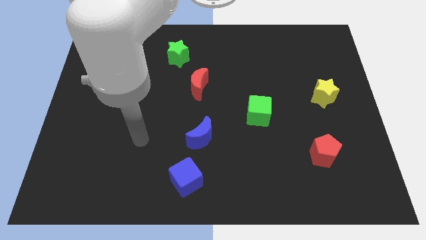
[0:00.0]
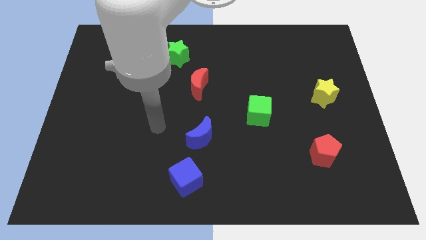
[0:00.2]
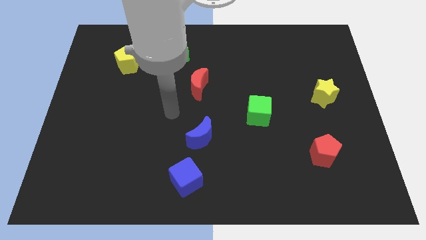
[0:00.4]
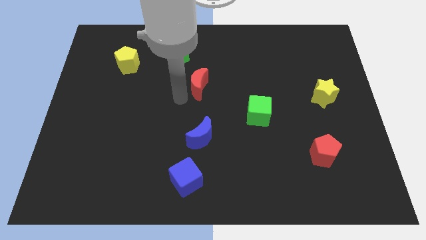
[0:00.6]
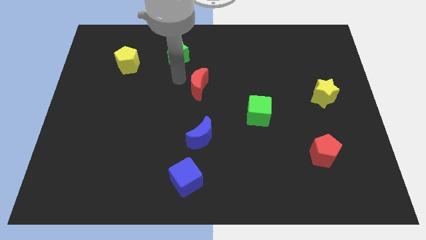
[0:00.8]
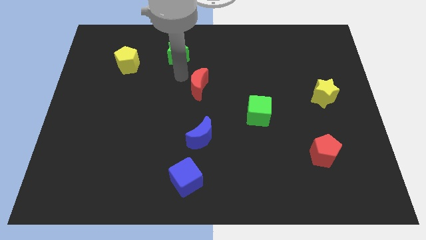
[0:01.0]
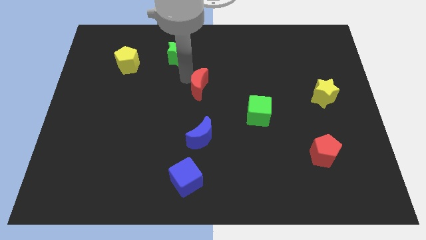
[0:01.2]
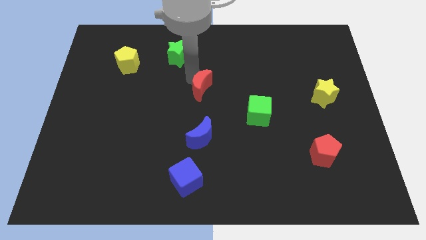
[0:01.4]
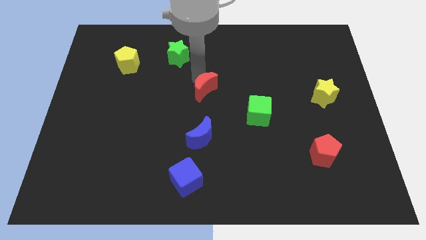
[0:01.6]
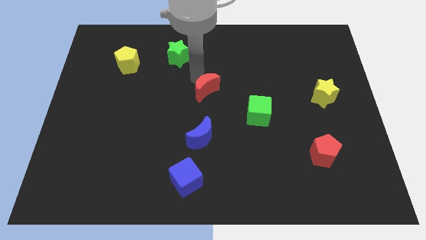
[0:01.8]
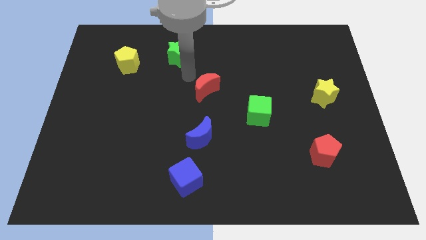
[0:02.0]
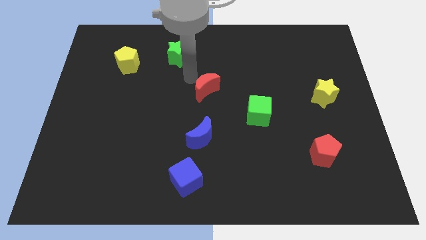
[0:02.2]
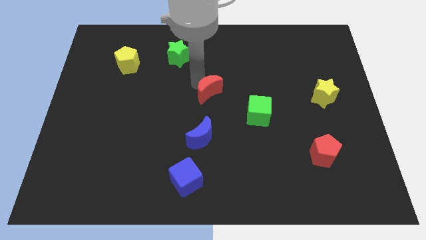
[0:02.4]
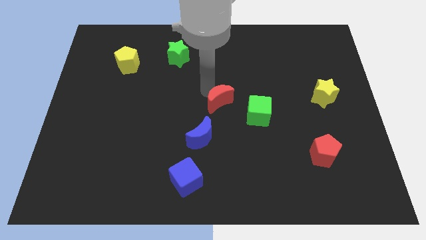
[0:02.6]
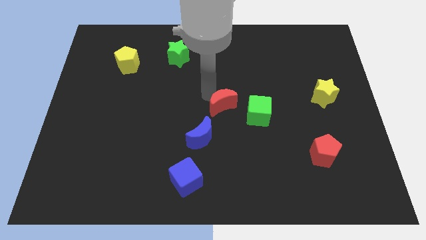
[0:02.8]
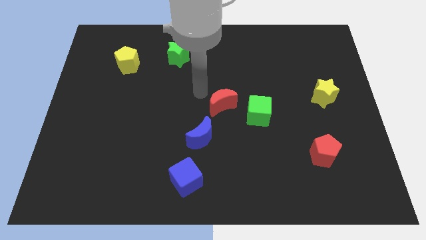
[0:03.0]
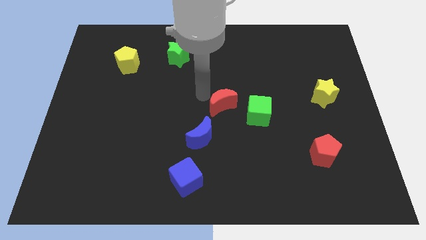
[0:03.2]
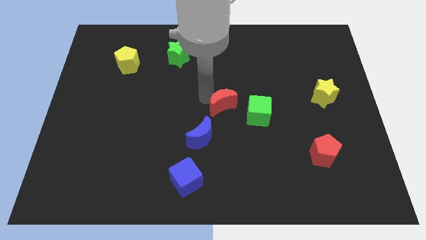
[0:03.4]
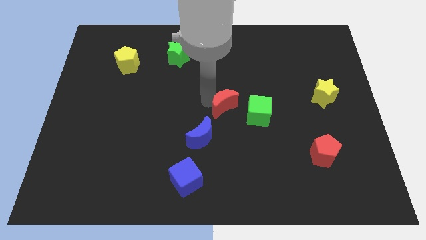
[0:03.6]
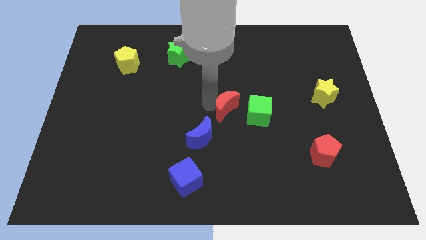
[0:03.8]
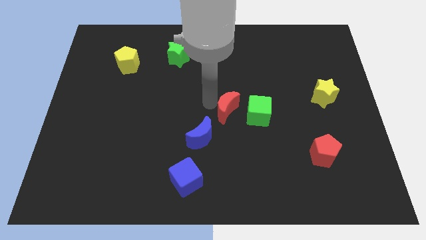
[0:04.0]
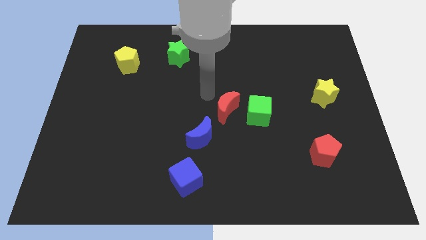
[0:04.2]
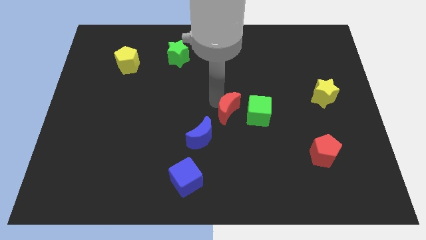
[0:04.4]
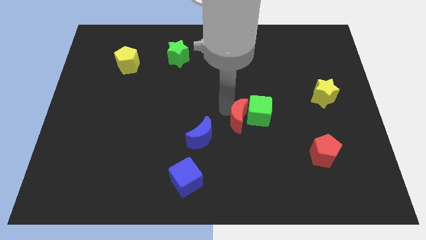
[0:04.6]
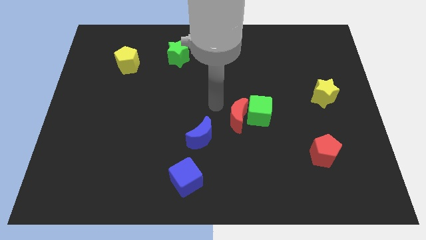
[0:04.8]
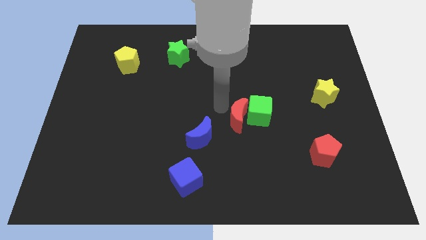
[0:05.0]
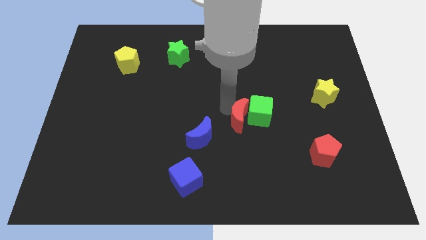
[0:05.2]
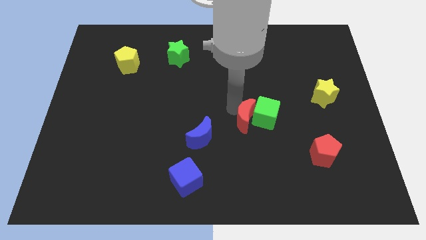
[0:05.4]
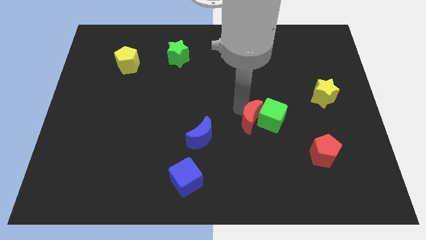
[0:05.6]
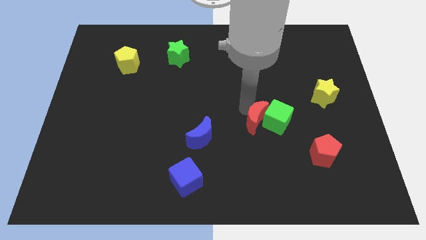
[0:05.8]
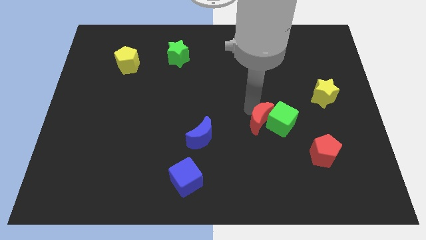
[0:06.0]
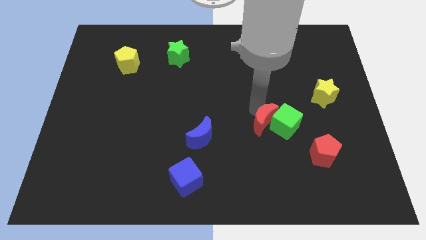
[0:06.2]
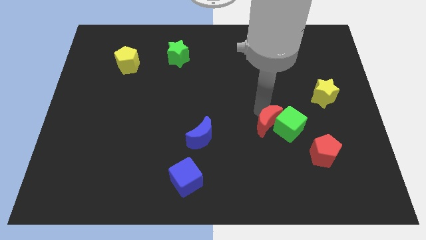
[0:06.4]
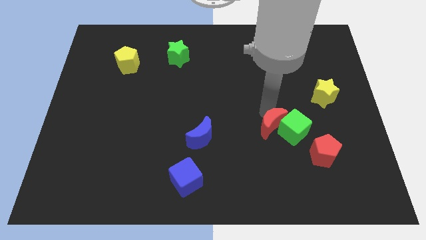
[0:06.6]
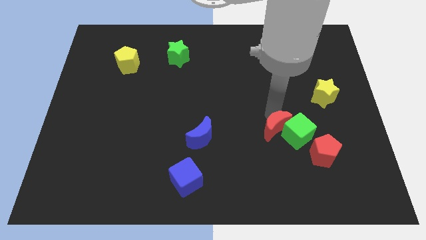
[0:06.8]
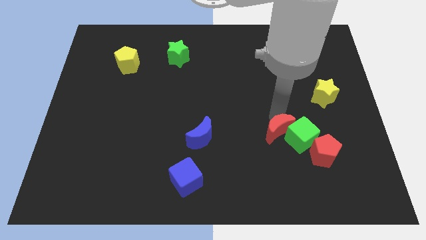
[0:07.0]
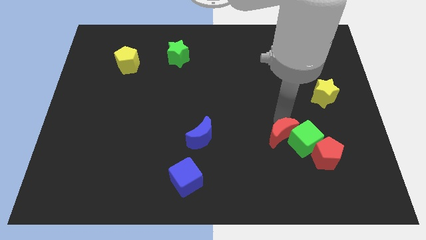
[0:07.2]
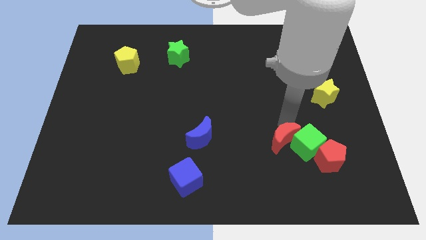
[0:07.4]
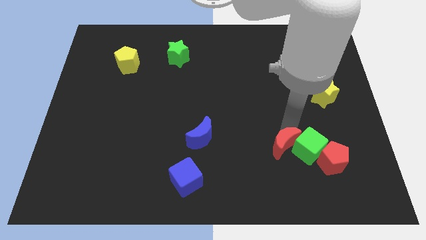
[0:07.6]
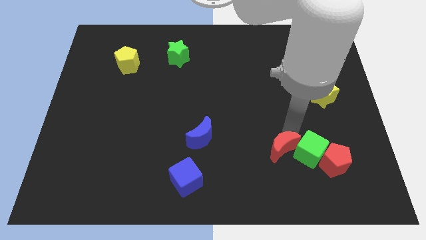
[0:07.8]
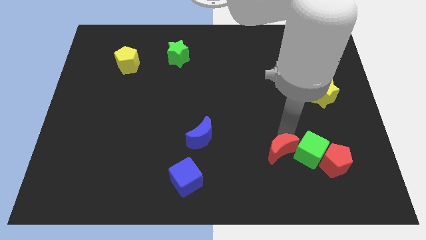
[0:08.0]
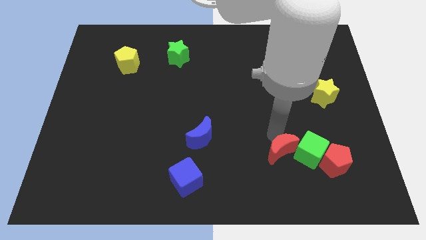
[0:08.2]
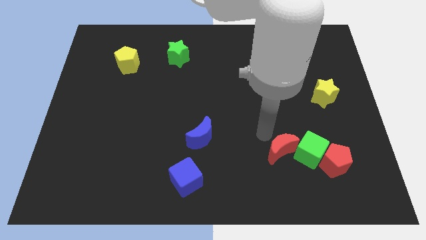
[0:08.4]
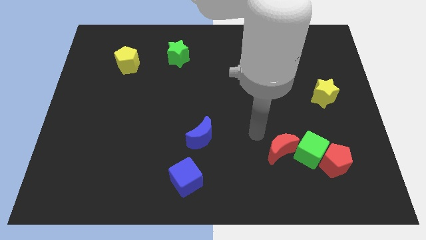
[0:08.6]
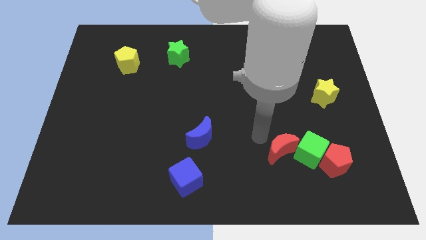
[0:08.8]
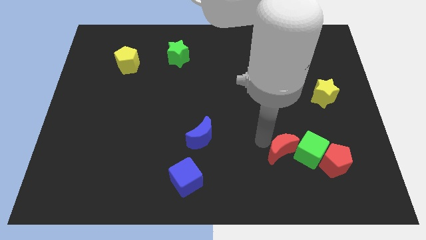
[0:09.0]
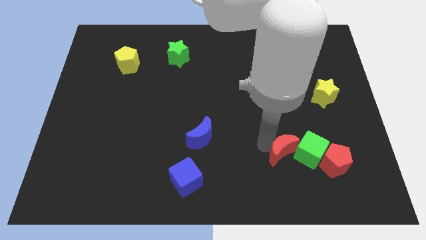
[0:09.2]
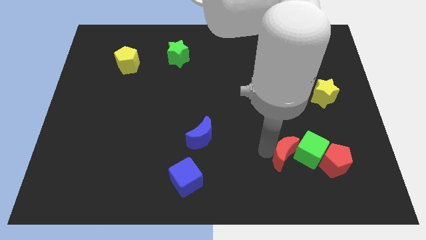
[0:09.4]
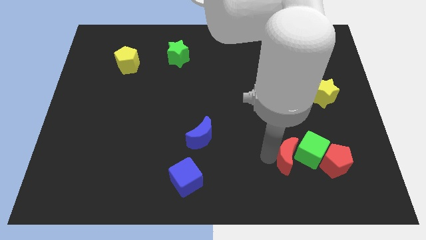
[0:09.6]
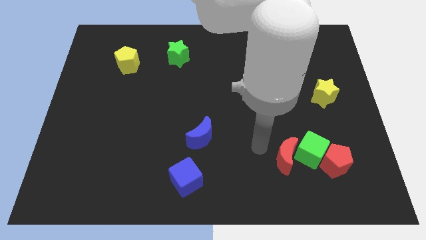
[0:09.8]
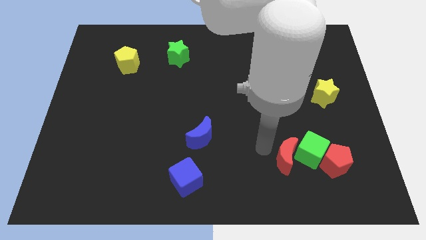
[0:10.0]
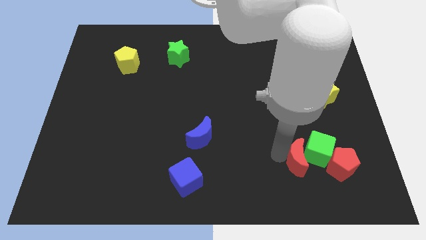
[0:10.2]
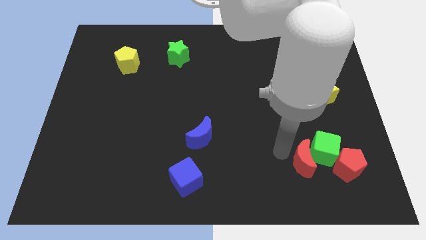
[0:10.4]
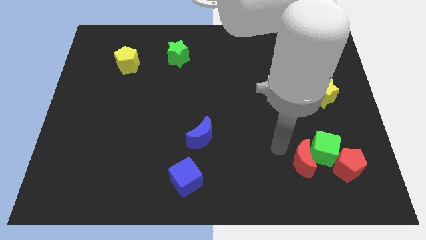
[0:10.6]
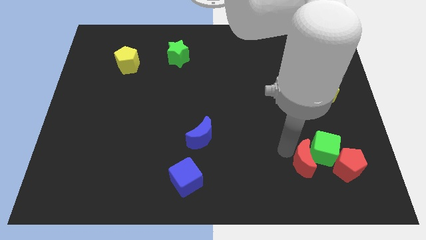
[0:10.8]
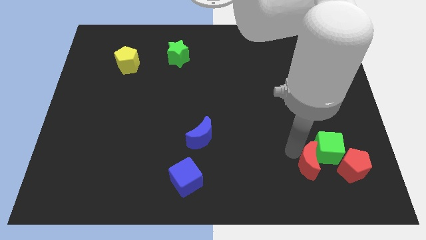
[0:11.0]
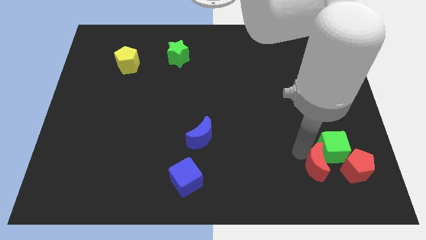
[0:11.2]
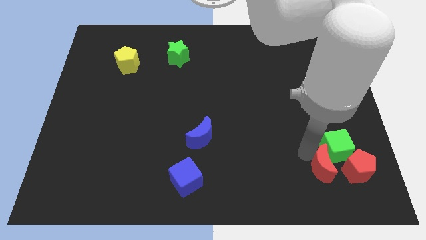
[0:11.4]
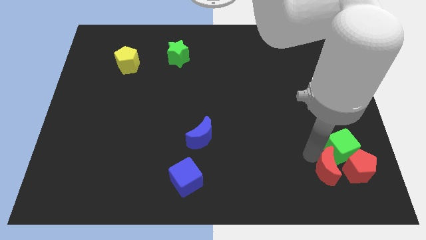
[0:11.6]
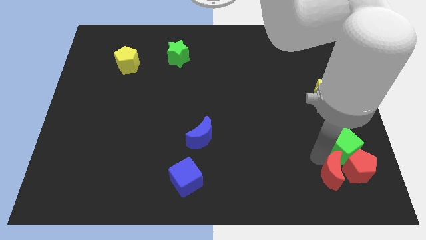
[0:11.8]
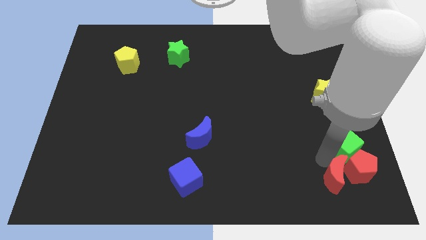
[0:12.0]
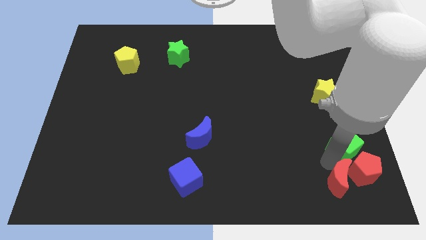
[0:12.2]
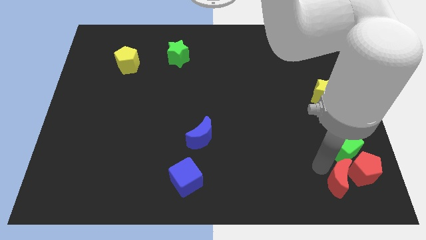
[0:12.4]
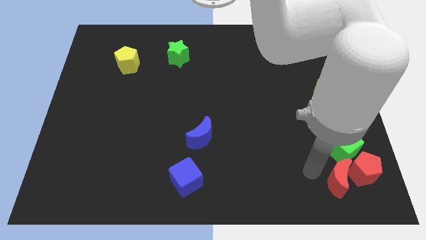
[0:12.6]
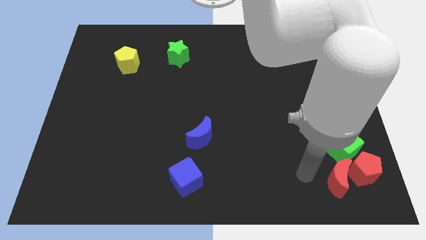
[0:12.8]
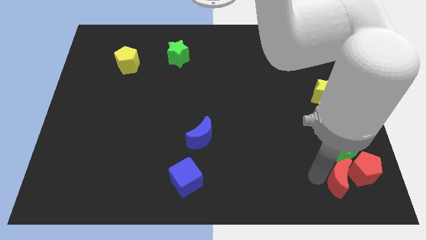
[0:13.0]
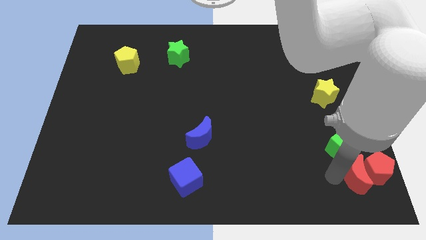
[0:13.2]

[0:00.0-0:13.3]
put the red moon to the lower right corner
